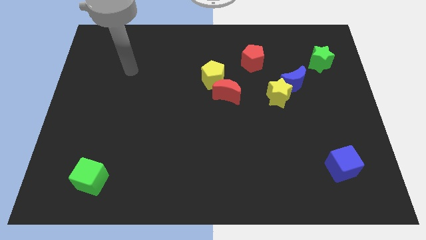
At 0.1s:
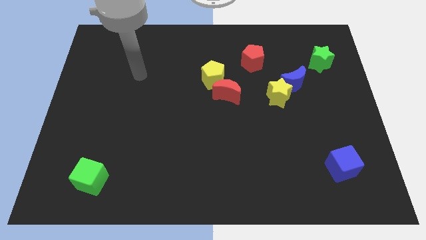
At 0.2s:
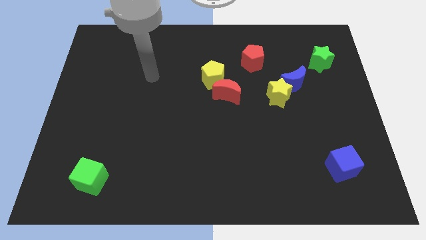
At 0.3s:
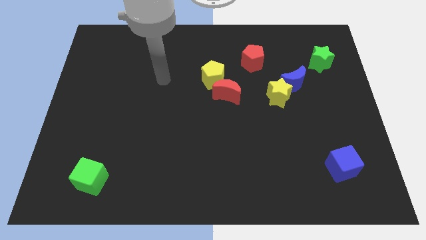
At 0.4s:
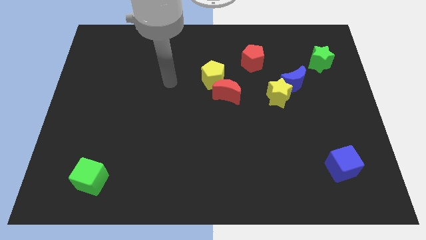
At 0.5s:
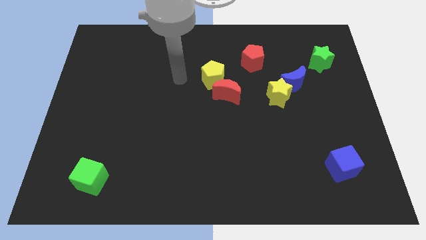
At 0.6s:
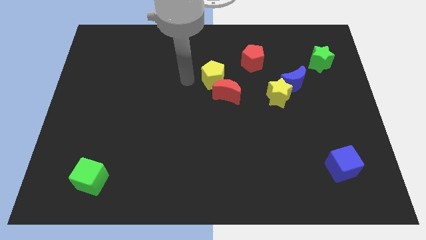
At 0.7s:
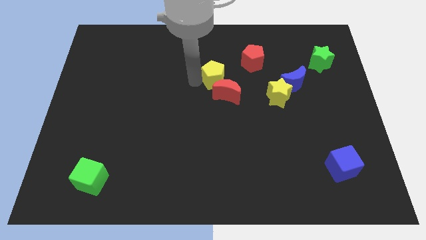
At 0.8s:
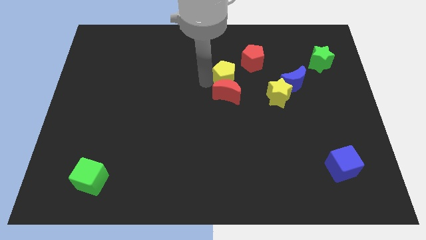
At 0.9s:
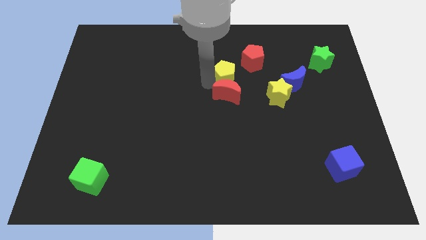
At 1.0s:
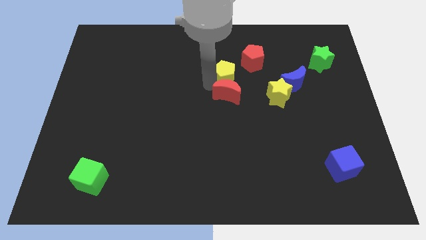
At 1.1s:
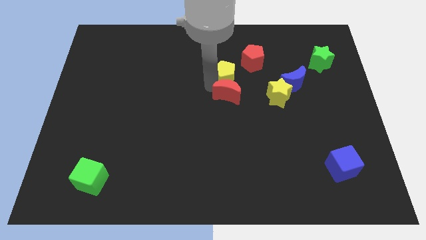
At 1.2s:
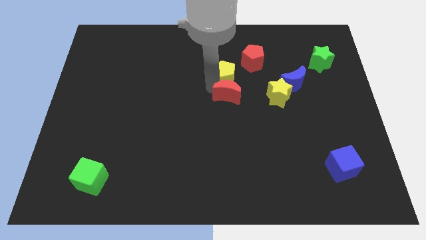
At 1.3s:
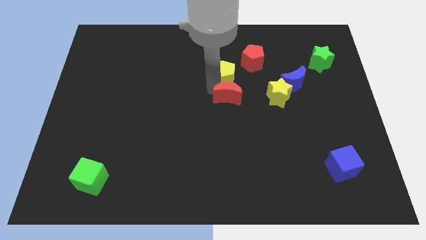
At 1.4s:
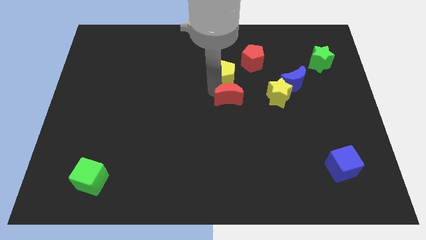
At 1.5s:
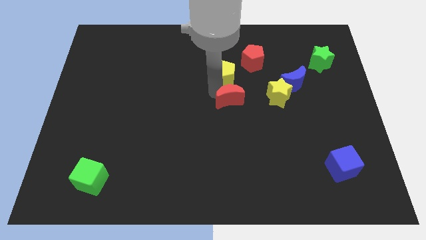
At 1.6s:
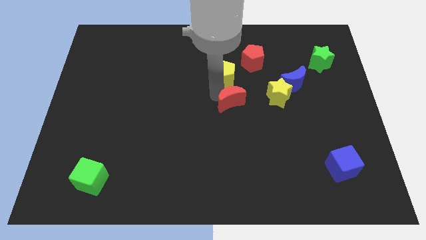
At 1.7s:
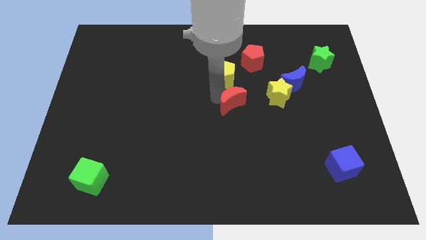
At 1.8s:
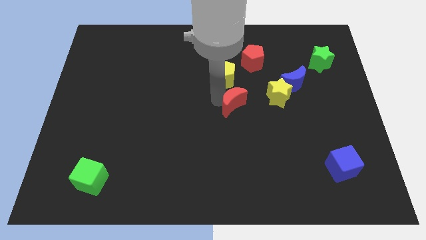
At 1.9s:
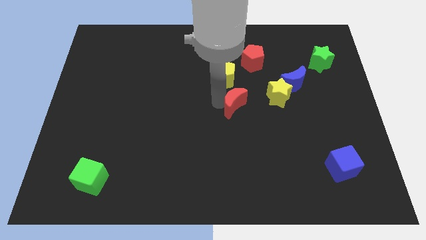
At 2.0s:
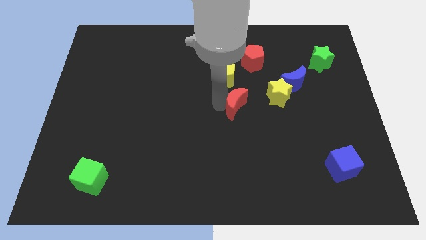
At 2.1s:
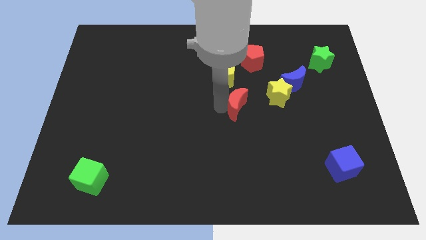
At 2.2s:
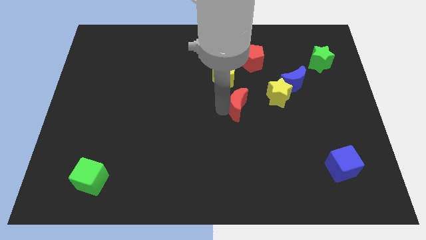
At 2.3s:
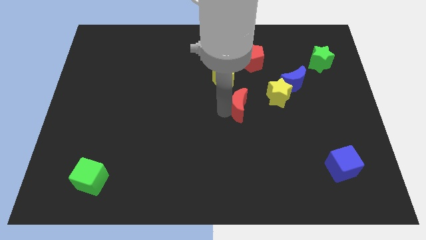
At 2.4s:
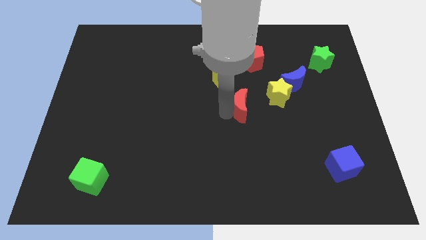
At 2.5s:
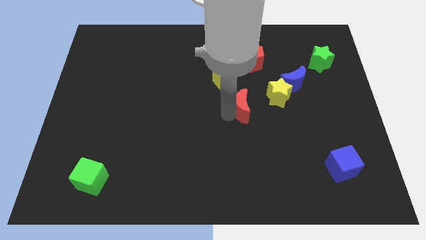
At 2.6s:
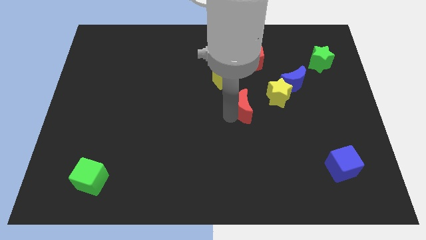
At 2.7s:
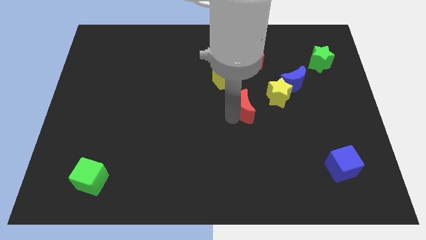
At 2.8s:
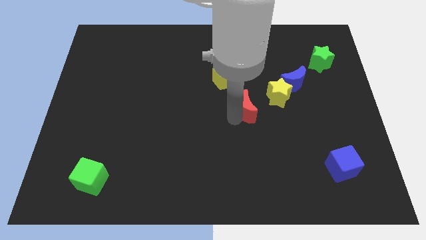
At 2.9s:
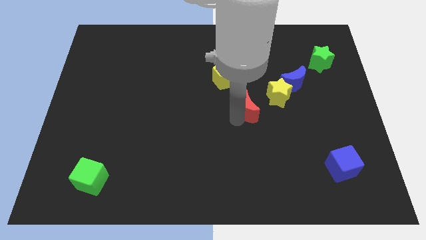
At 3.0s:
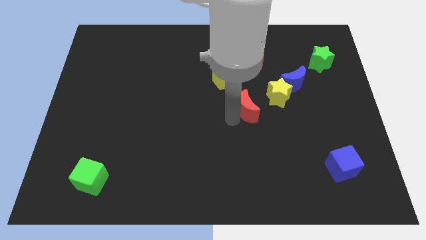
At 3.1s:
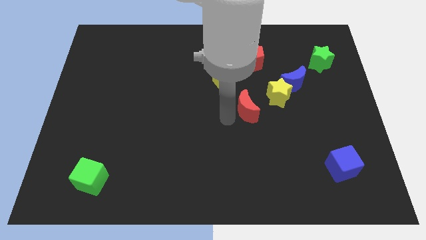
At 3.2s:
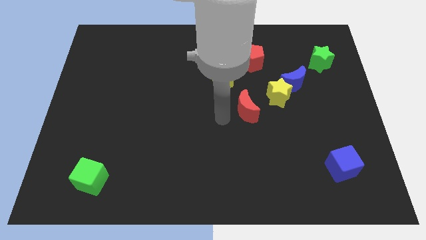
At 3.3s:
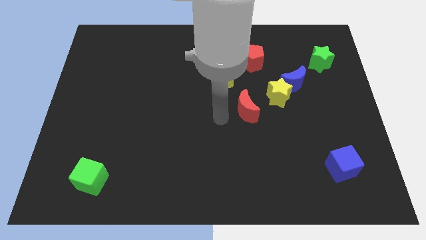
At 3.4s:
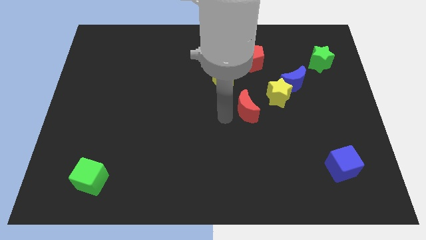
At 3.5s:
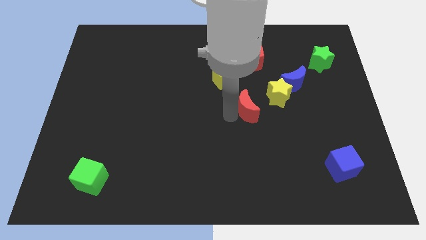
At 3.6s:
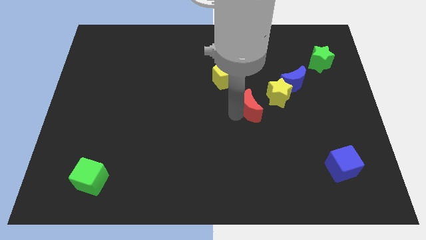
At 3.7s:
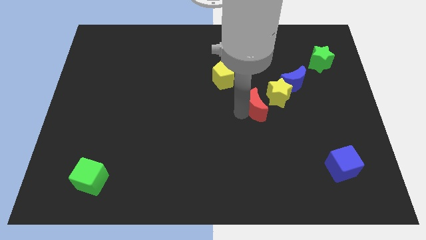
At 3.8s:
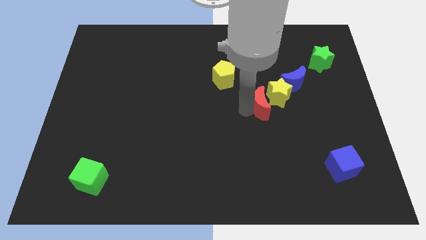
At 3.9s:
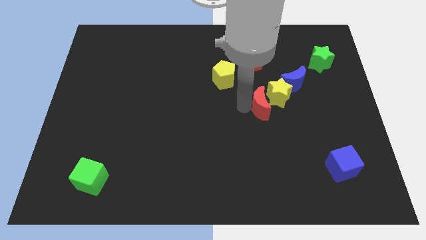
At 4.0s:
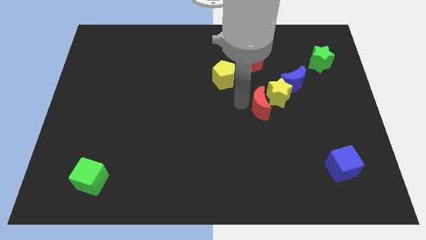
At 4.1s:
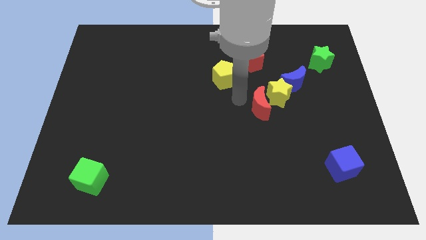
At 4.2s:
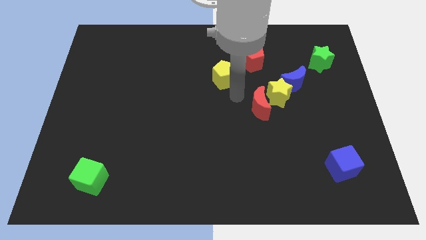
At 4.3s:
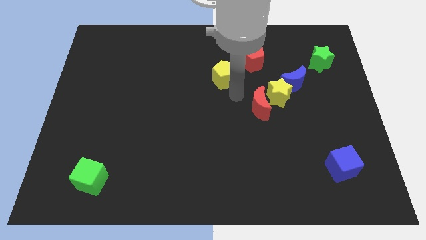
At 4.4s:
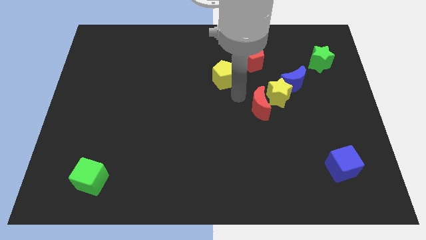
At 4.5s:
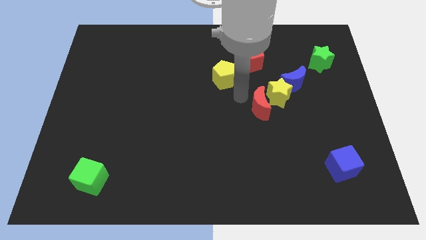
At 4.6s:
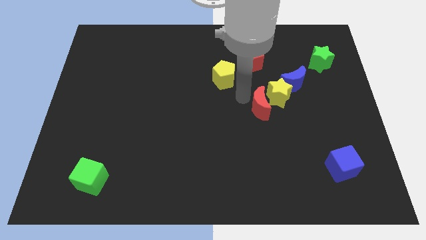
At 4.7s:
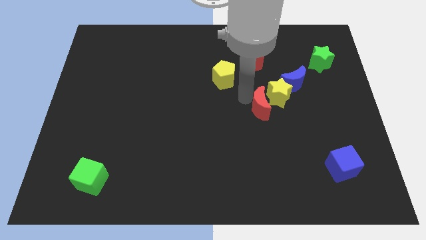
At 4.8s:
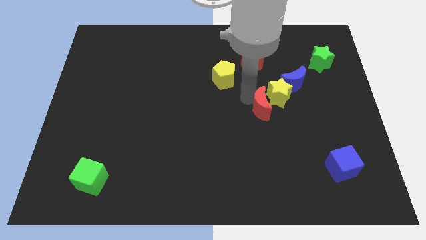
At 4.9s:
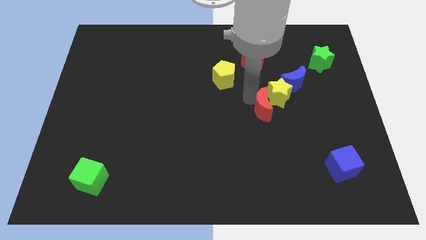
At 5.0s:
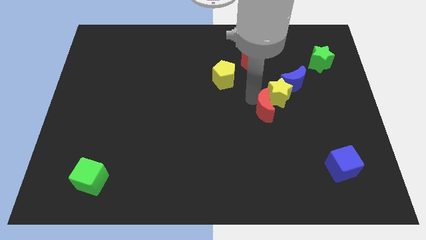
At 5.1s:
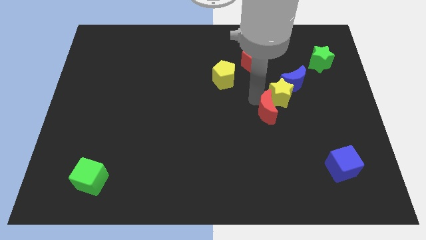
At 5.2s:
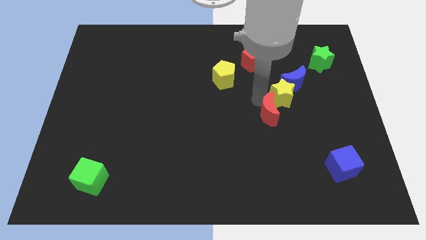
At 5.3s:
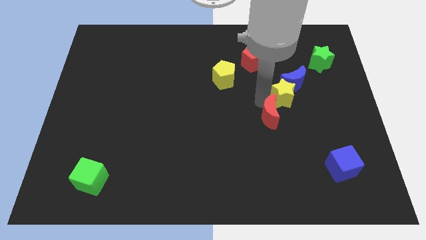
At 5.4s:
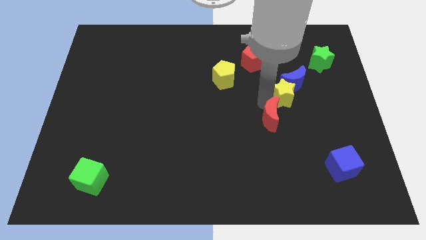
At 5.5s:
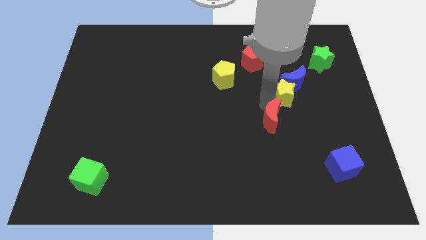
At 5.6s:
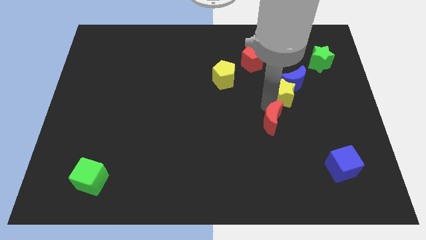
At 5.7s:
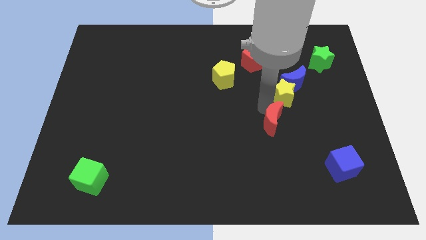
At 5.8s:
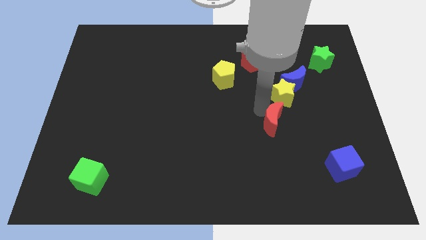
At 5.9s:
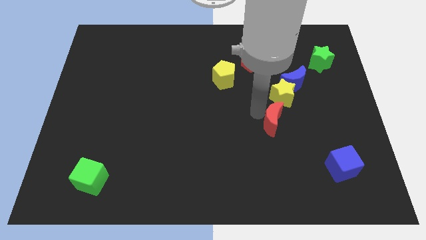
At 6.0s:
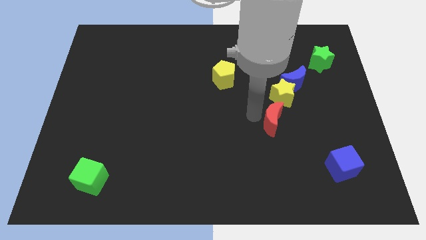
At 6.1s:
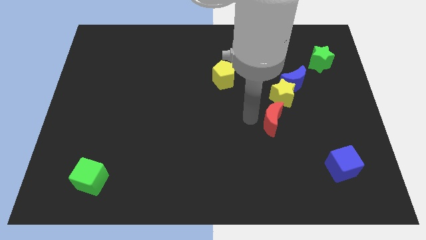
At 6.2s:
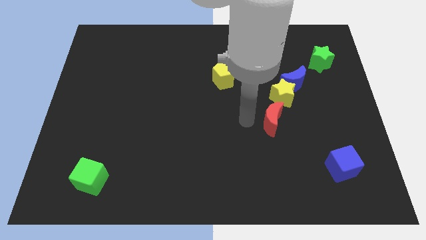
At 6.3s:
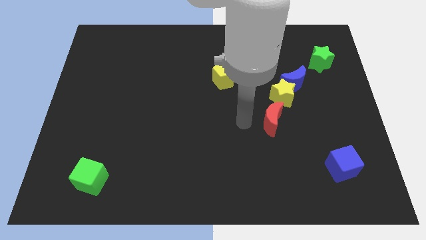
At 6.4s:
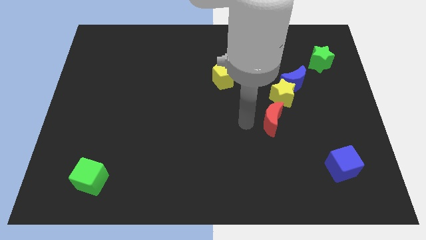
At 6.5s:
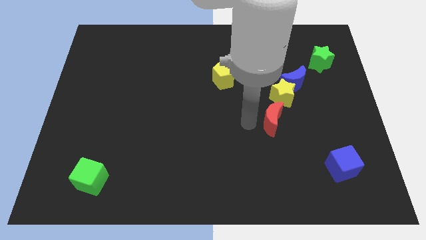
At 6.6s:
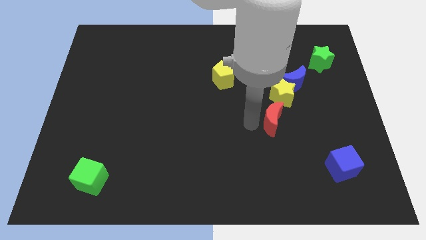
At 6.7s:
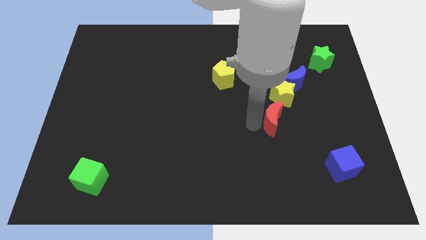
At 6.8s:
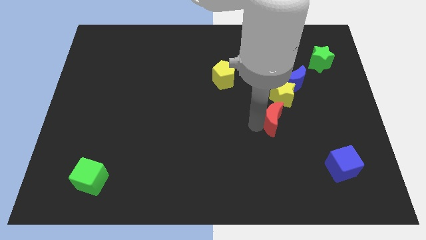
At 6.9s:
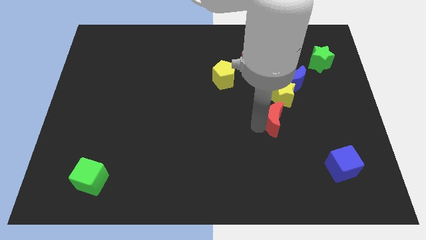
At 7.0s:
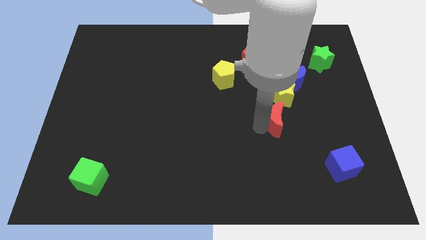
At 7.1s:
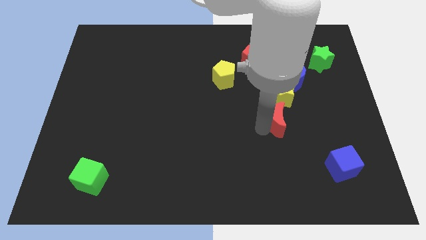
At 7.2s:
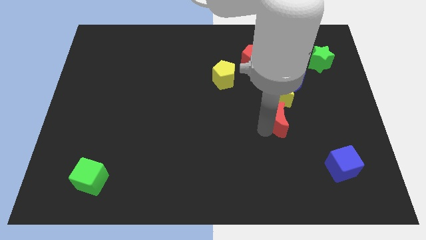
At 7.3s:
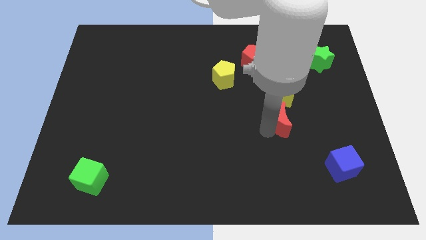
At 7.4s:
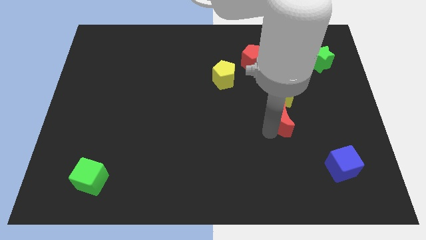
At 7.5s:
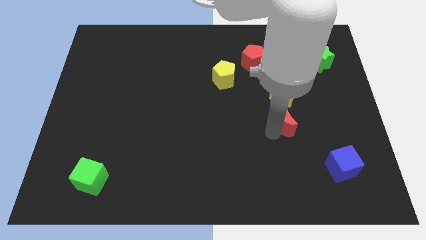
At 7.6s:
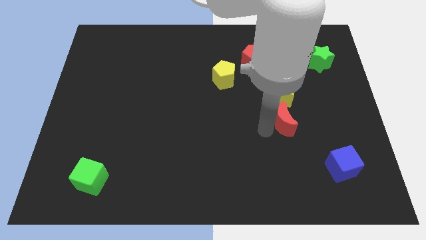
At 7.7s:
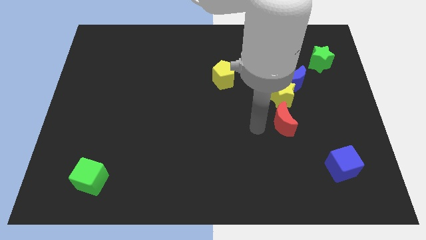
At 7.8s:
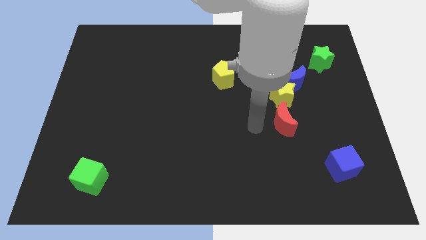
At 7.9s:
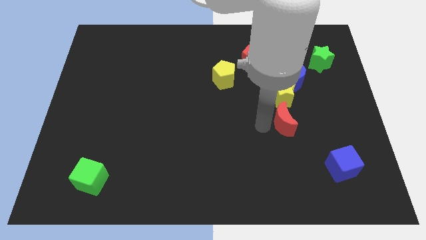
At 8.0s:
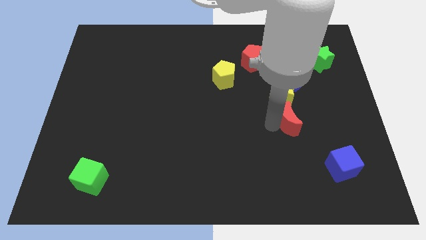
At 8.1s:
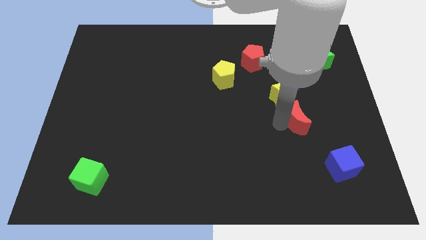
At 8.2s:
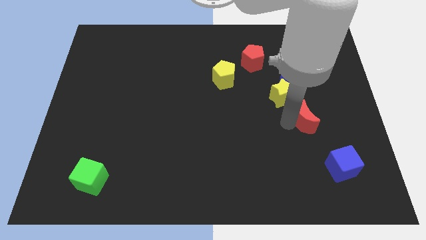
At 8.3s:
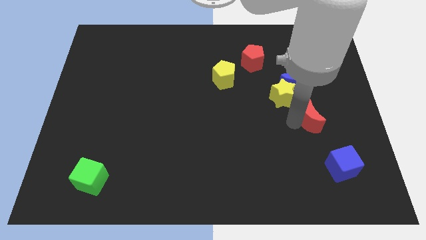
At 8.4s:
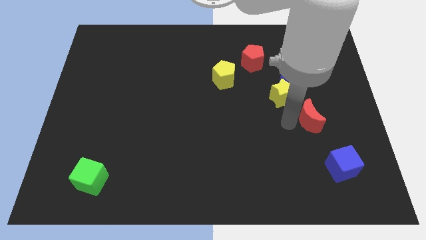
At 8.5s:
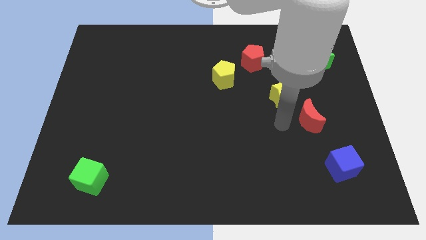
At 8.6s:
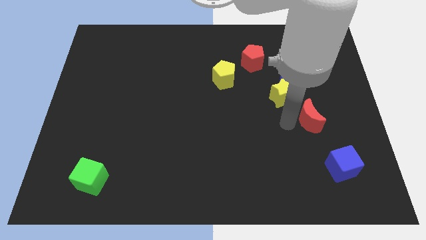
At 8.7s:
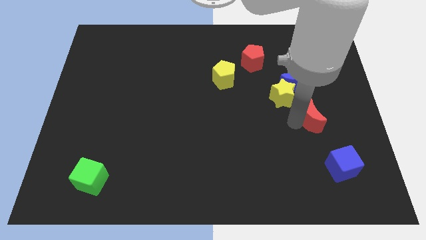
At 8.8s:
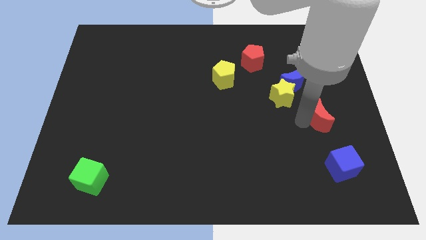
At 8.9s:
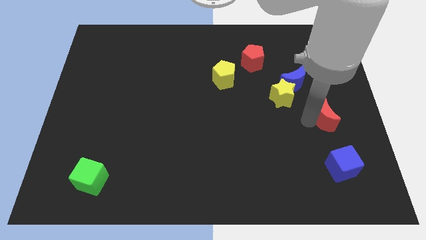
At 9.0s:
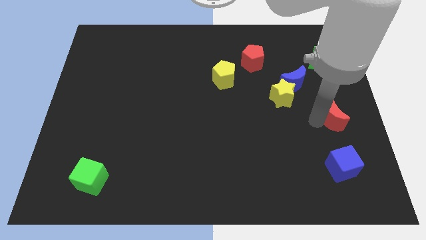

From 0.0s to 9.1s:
slide the red moon to the right side
